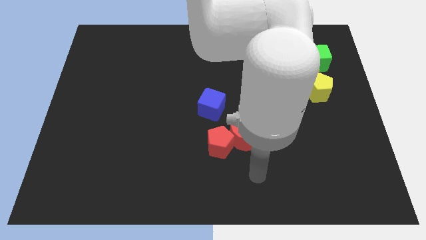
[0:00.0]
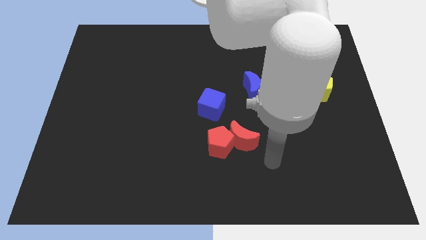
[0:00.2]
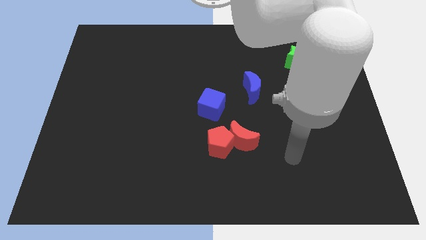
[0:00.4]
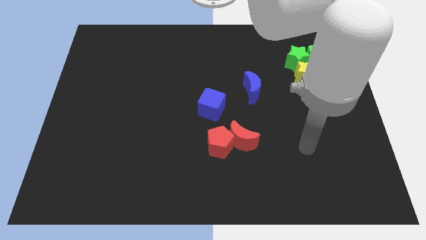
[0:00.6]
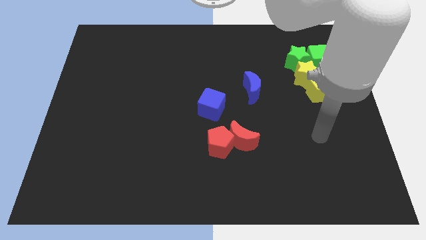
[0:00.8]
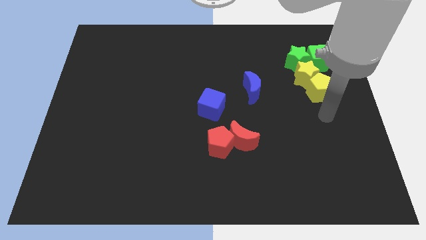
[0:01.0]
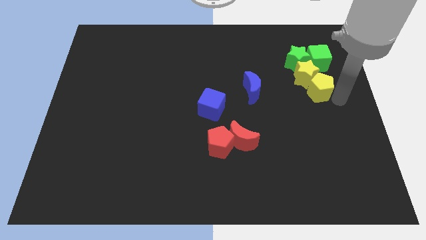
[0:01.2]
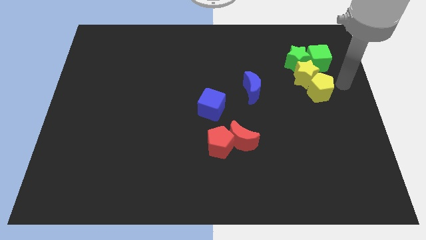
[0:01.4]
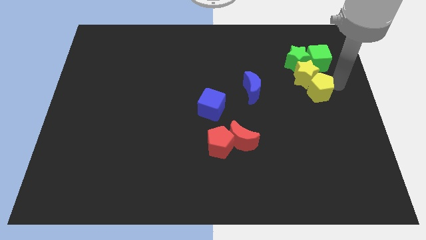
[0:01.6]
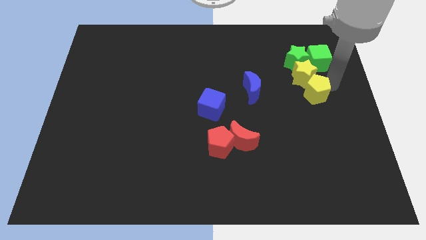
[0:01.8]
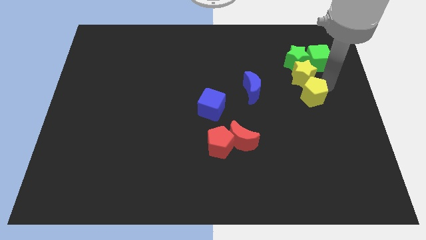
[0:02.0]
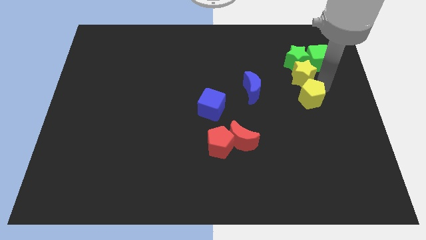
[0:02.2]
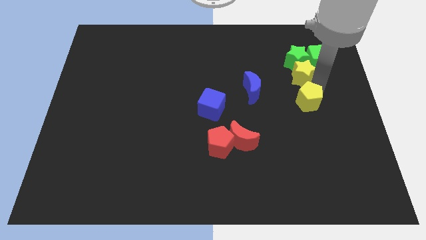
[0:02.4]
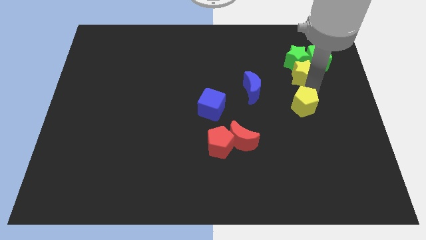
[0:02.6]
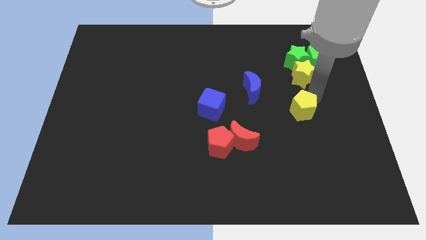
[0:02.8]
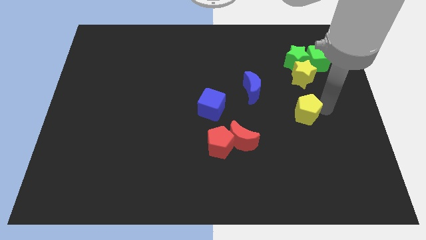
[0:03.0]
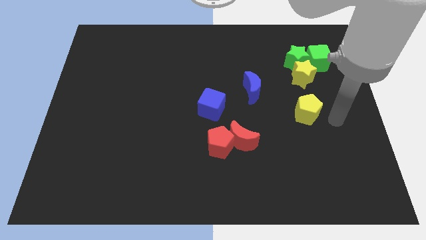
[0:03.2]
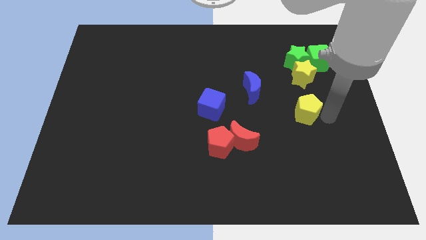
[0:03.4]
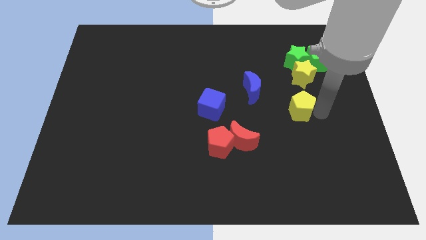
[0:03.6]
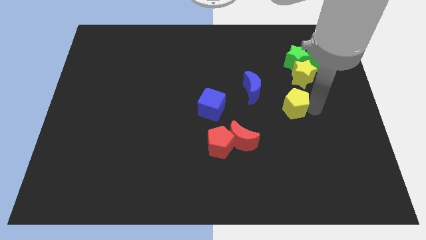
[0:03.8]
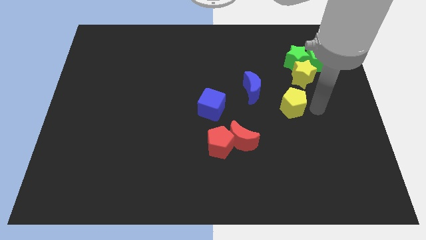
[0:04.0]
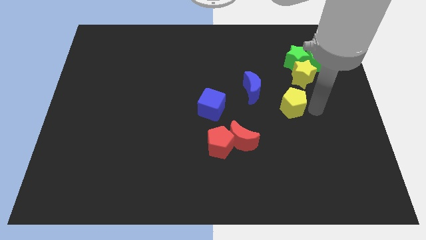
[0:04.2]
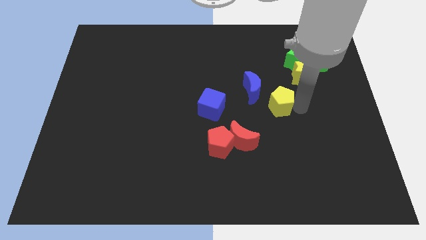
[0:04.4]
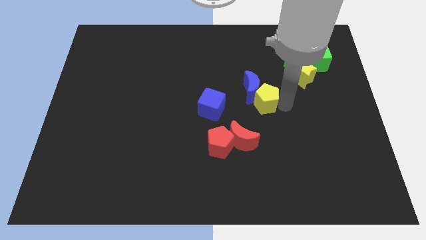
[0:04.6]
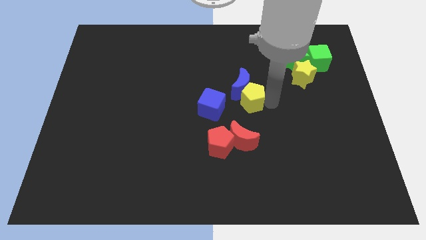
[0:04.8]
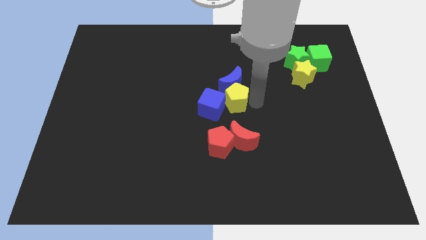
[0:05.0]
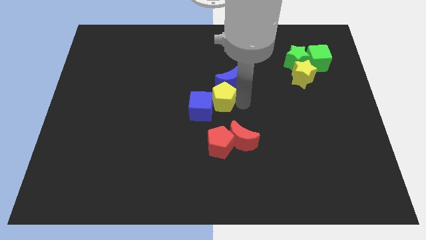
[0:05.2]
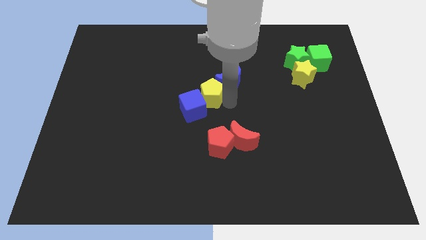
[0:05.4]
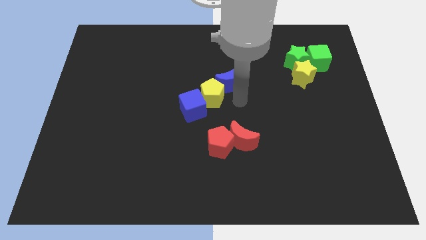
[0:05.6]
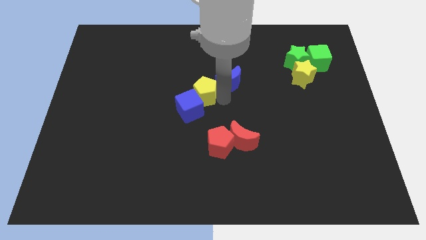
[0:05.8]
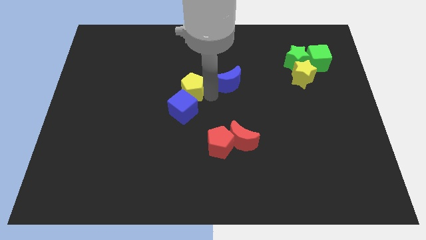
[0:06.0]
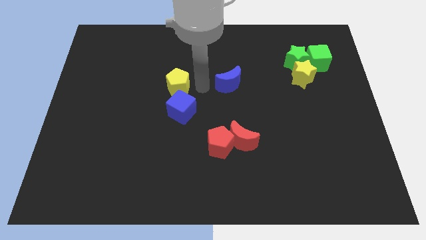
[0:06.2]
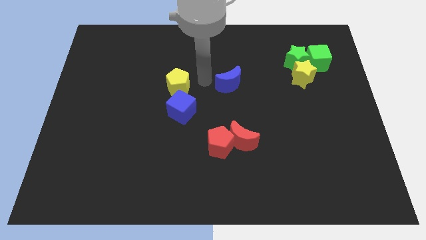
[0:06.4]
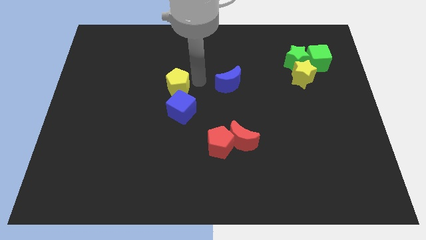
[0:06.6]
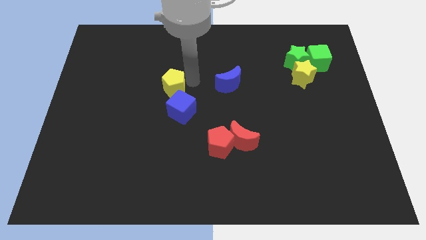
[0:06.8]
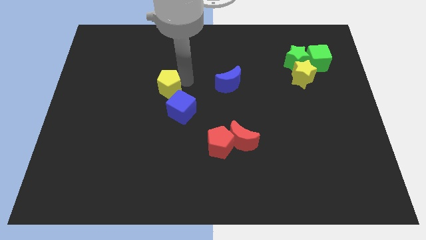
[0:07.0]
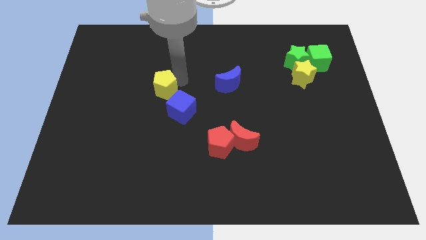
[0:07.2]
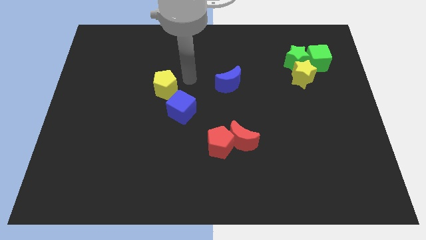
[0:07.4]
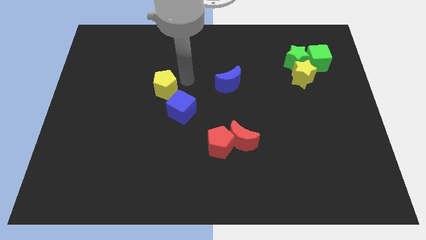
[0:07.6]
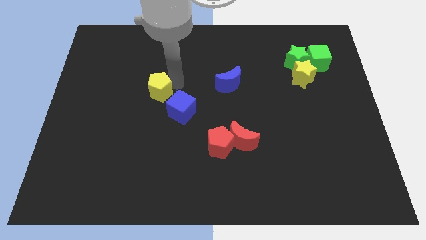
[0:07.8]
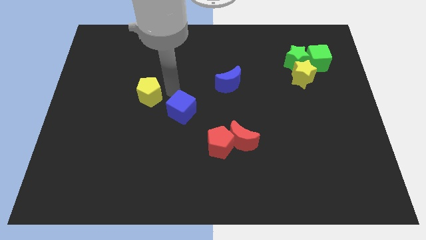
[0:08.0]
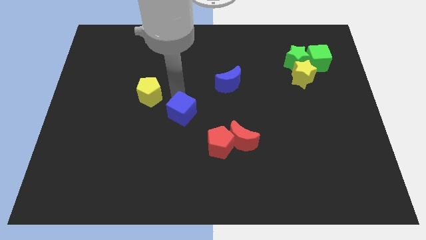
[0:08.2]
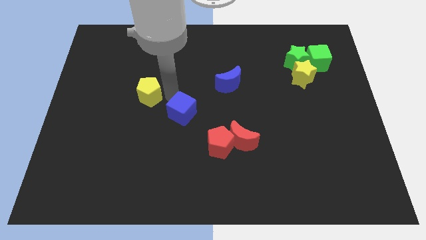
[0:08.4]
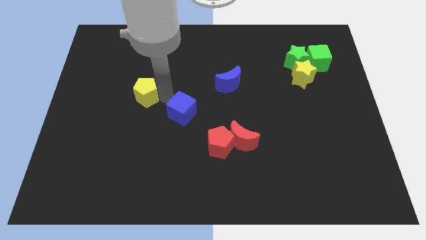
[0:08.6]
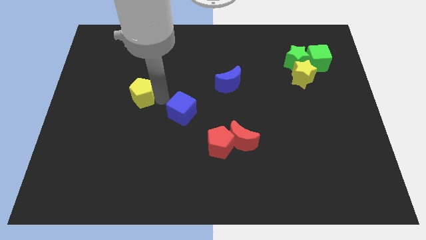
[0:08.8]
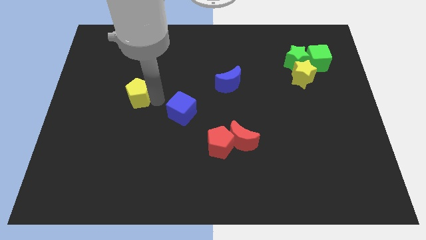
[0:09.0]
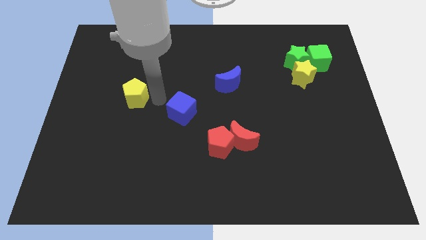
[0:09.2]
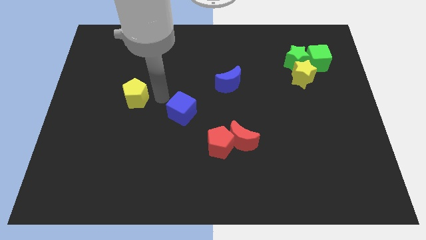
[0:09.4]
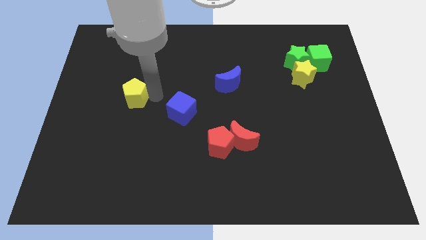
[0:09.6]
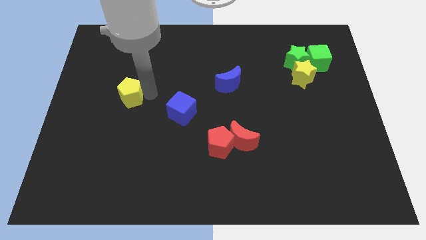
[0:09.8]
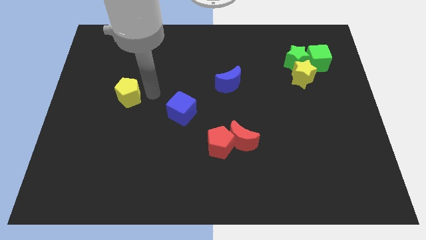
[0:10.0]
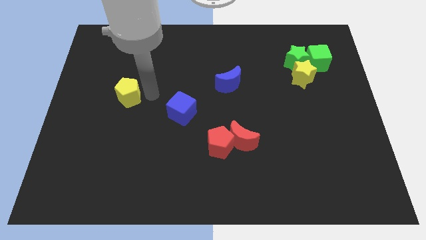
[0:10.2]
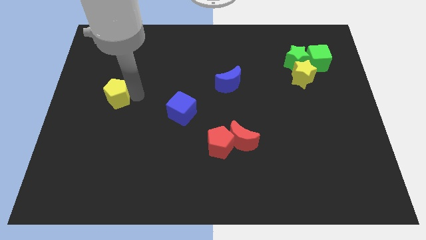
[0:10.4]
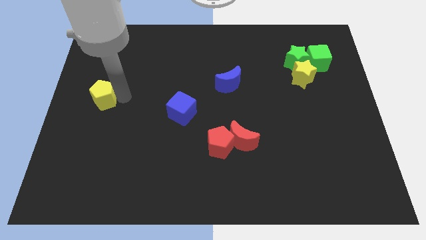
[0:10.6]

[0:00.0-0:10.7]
put the yellow pentagon to the left side

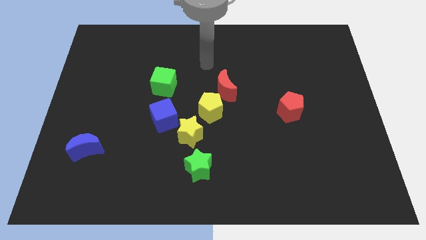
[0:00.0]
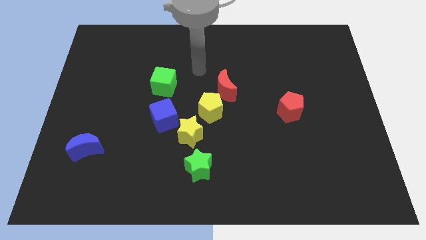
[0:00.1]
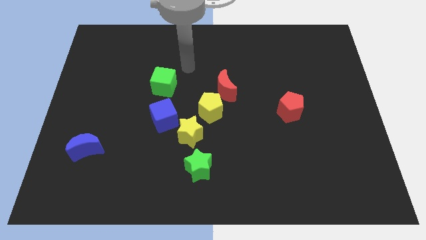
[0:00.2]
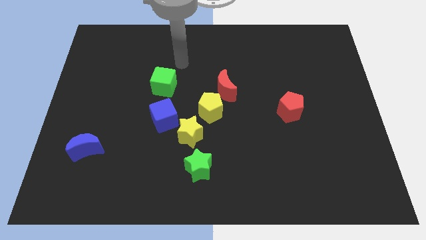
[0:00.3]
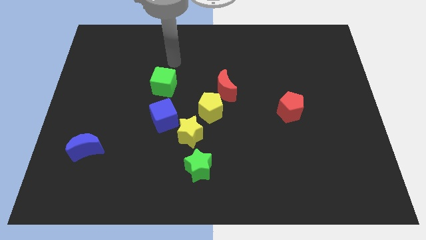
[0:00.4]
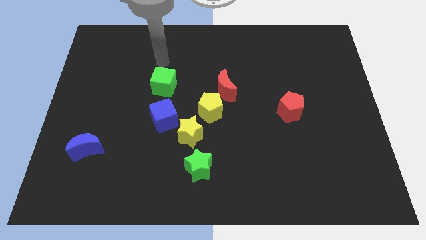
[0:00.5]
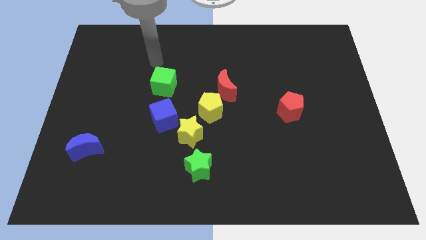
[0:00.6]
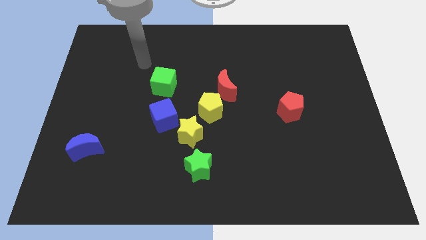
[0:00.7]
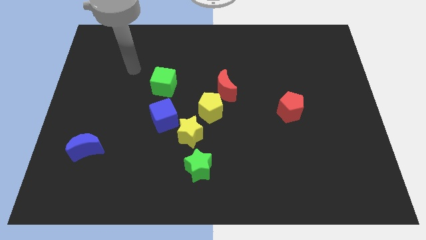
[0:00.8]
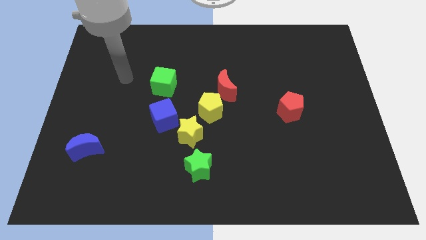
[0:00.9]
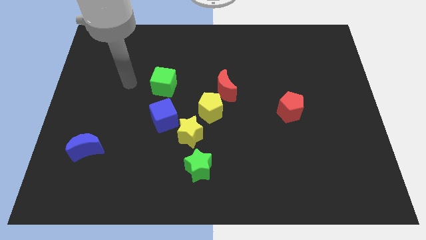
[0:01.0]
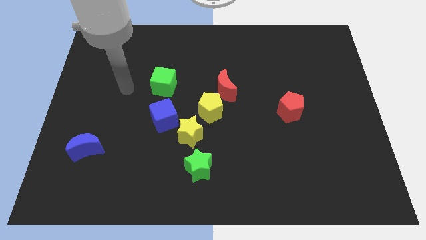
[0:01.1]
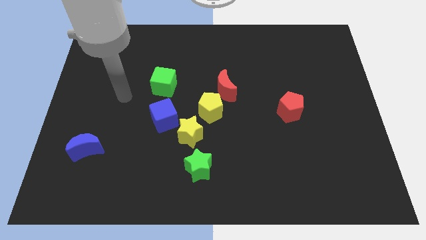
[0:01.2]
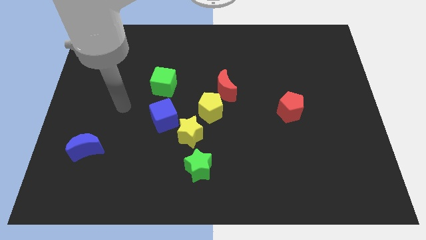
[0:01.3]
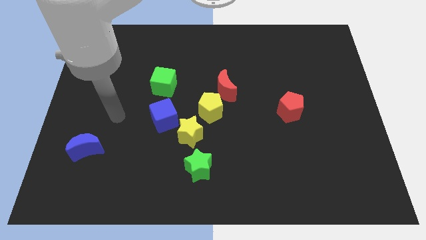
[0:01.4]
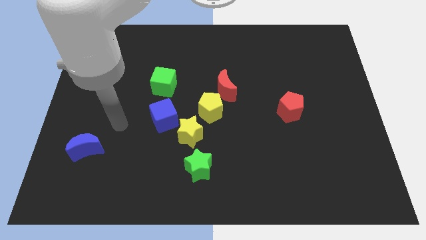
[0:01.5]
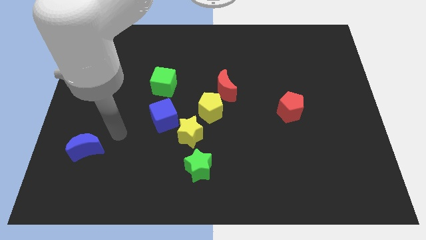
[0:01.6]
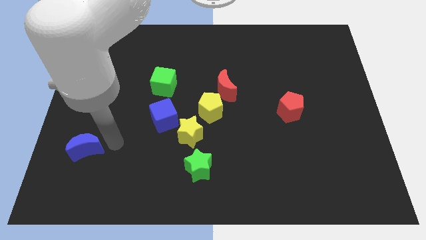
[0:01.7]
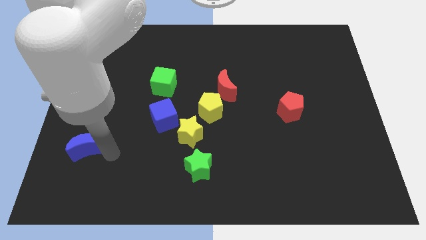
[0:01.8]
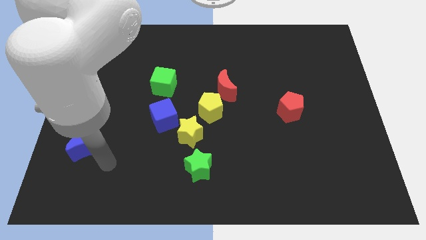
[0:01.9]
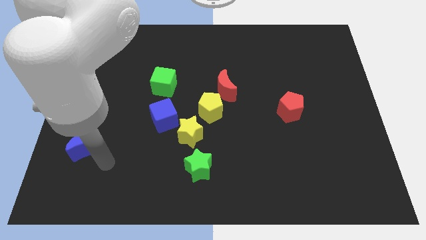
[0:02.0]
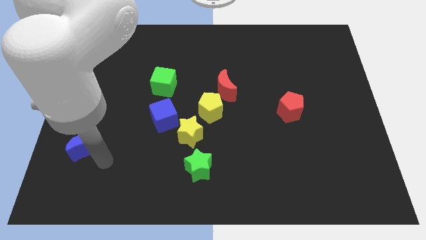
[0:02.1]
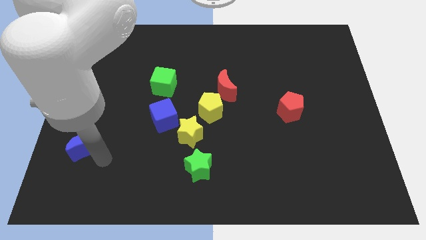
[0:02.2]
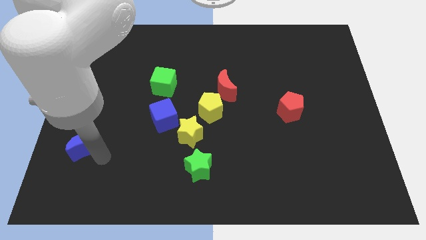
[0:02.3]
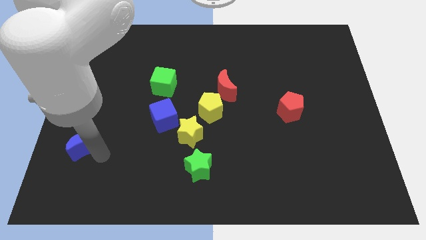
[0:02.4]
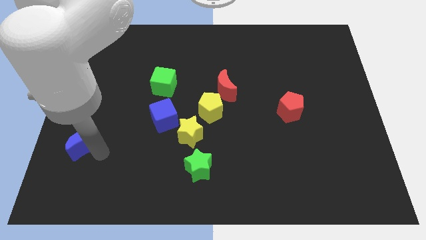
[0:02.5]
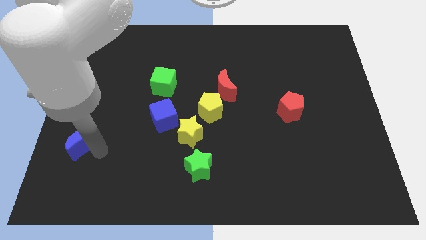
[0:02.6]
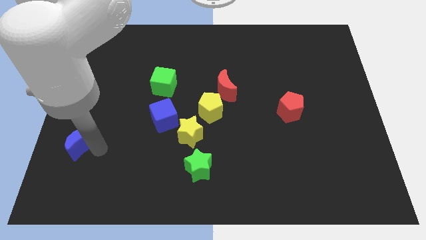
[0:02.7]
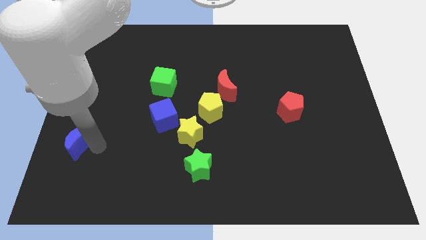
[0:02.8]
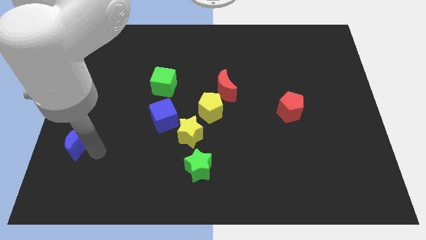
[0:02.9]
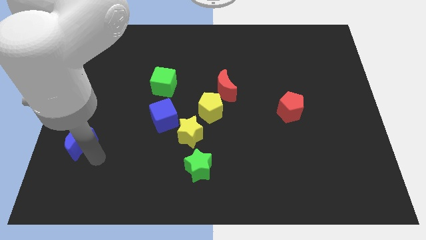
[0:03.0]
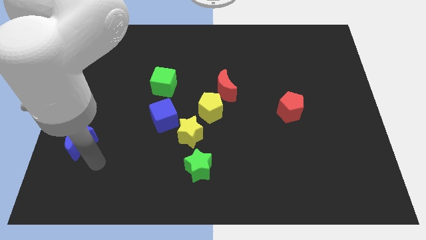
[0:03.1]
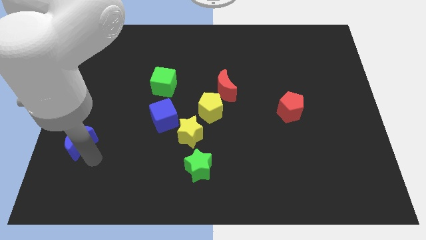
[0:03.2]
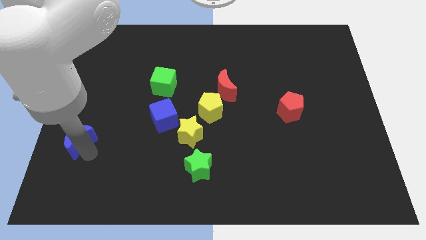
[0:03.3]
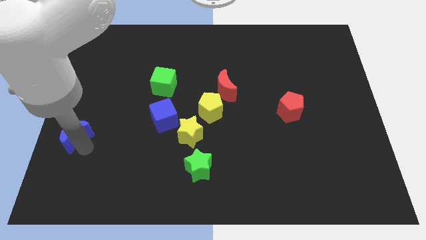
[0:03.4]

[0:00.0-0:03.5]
push the blue moon to the left side
